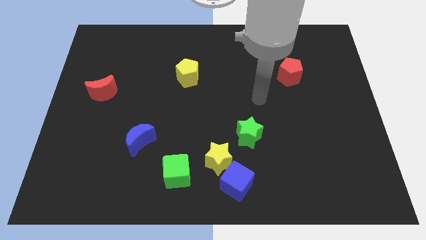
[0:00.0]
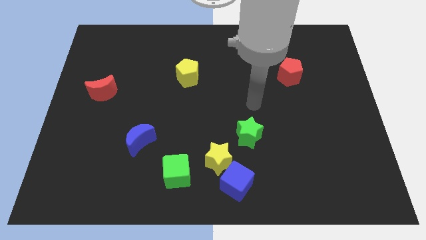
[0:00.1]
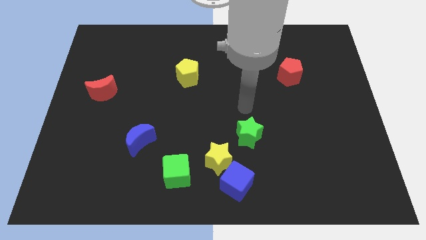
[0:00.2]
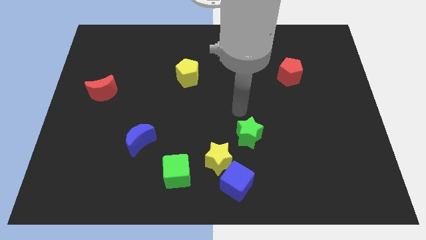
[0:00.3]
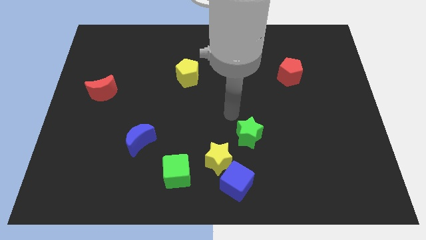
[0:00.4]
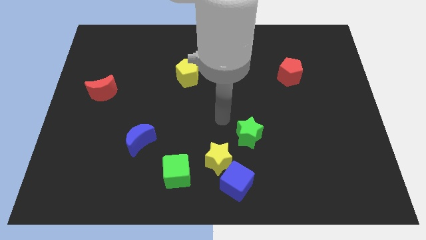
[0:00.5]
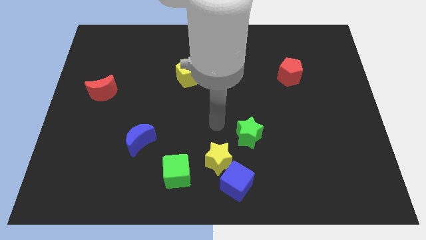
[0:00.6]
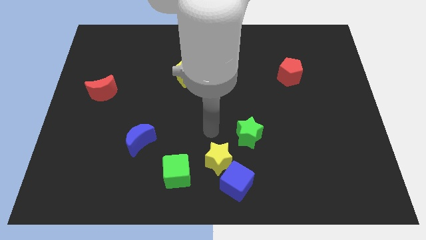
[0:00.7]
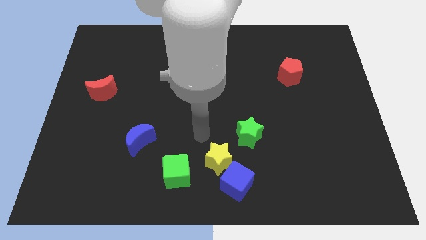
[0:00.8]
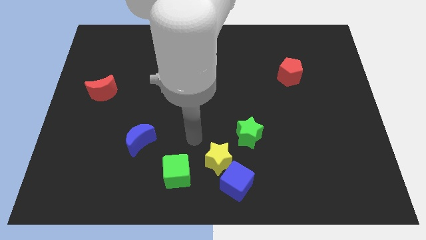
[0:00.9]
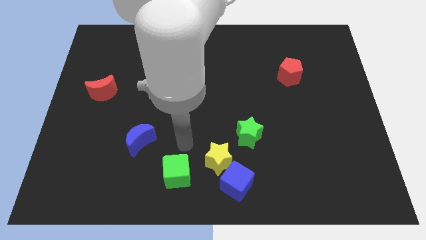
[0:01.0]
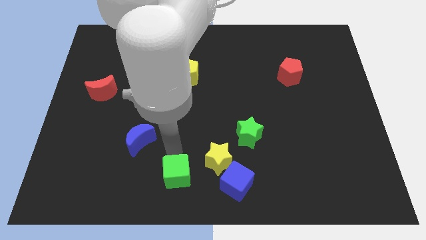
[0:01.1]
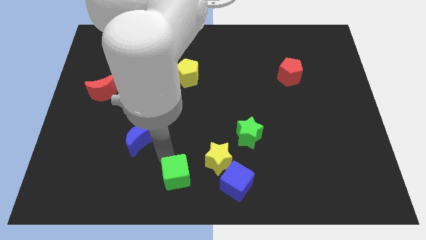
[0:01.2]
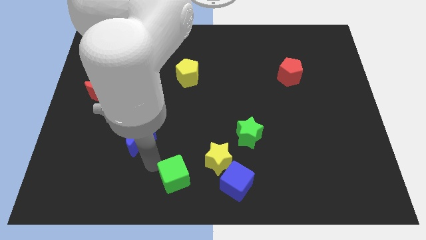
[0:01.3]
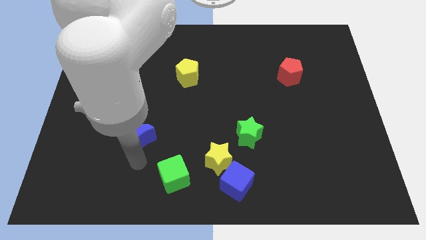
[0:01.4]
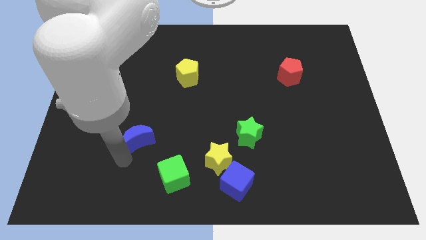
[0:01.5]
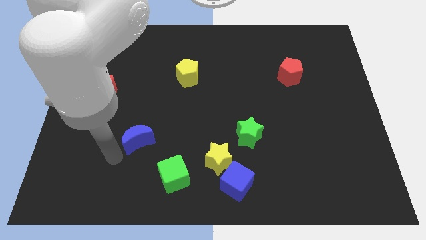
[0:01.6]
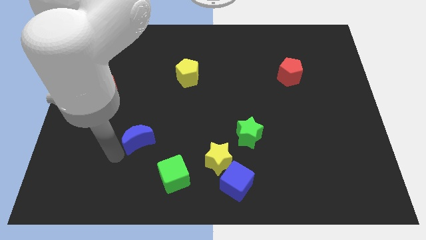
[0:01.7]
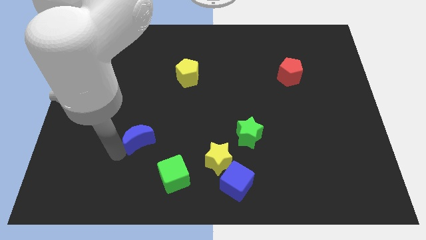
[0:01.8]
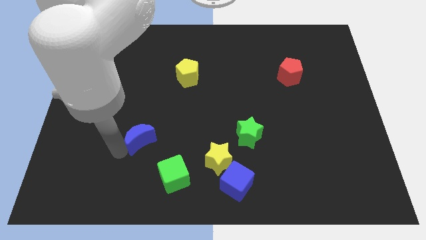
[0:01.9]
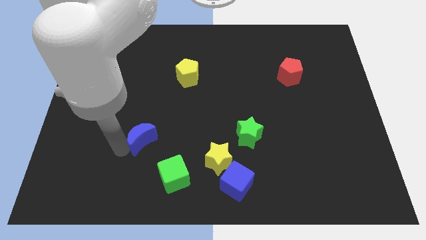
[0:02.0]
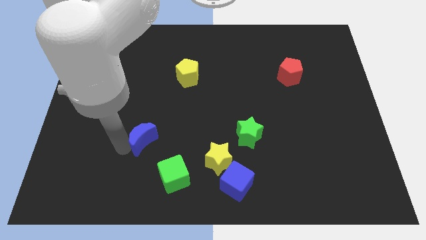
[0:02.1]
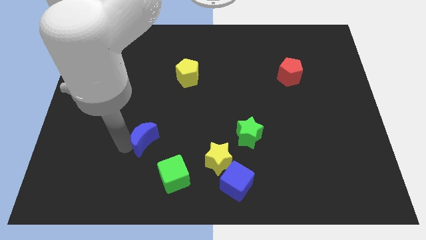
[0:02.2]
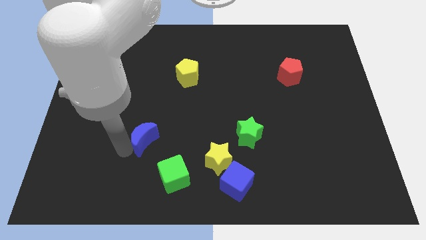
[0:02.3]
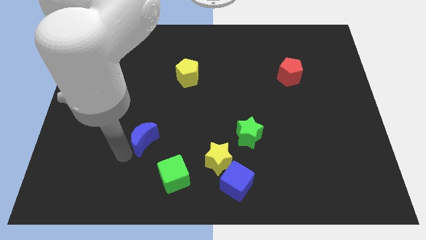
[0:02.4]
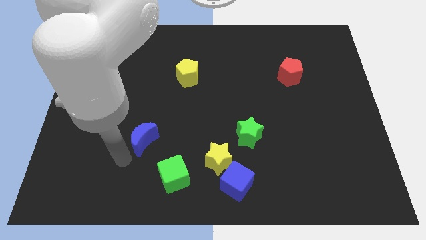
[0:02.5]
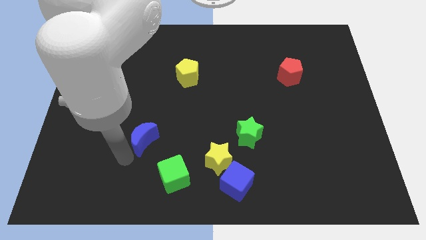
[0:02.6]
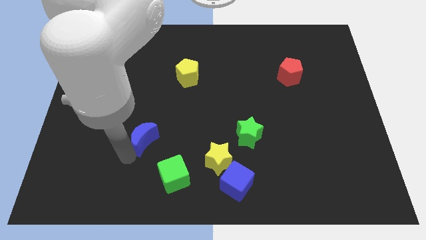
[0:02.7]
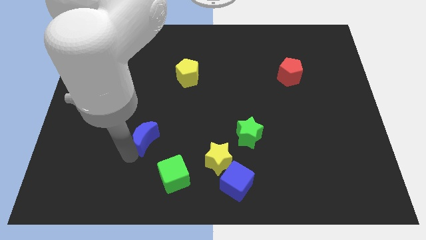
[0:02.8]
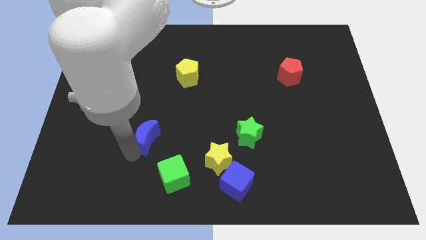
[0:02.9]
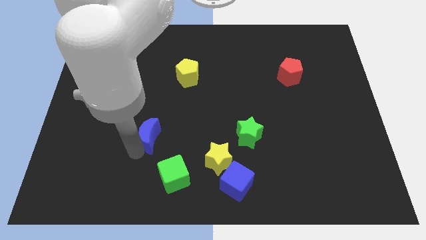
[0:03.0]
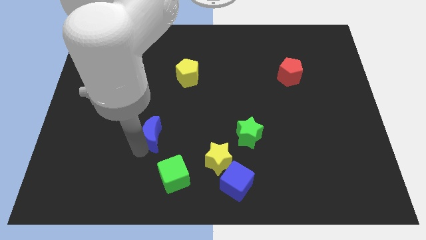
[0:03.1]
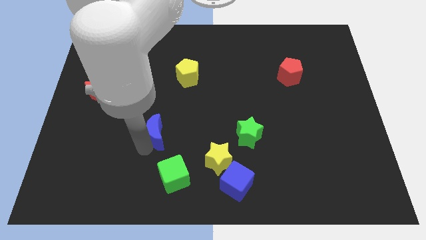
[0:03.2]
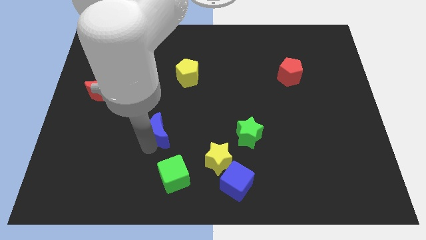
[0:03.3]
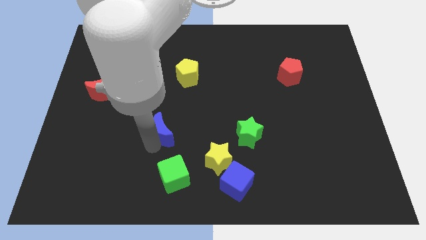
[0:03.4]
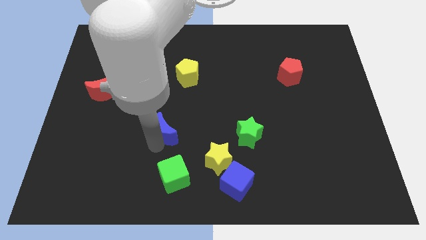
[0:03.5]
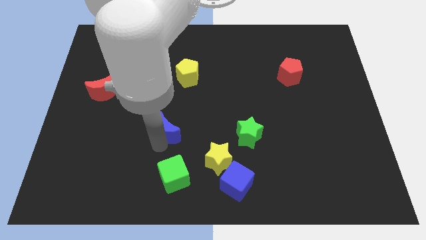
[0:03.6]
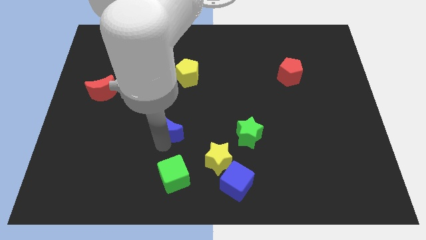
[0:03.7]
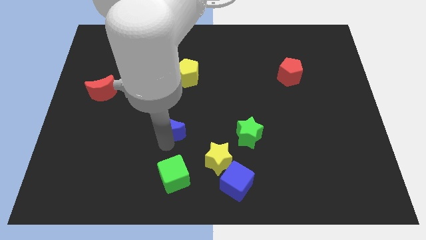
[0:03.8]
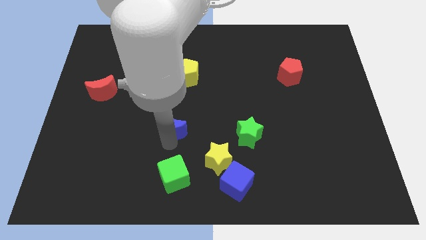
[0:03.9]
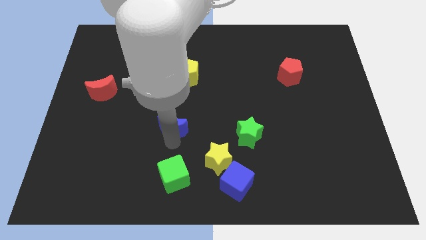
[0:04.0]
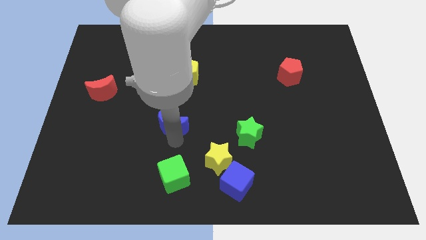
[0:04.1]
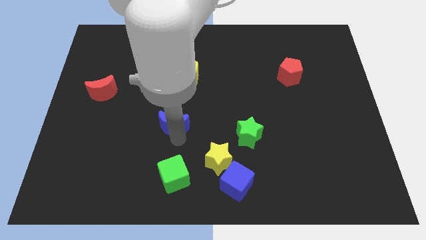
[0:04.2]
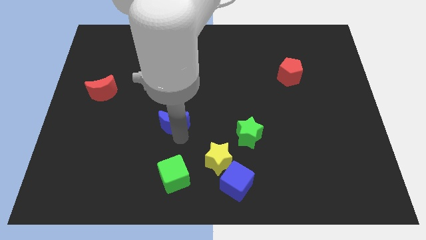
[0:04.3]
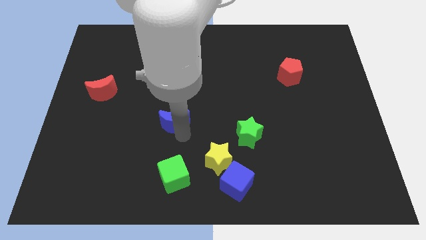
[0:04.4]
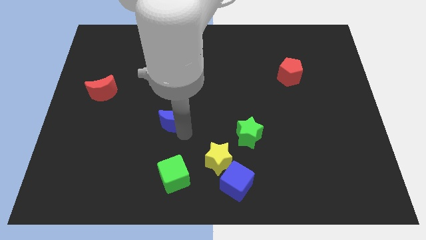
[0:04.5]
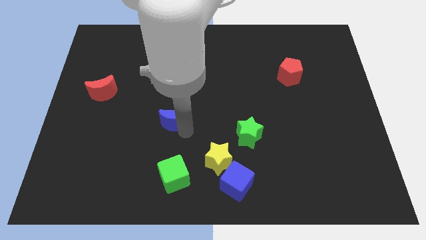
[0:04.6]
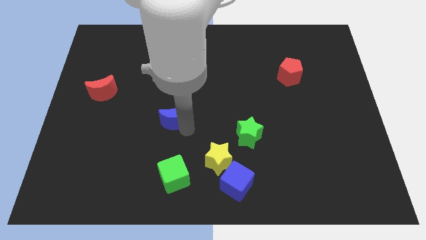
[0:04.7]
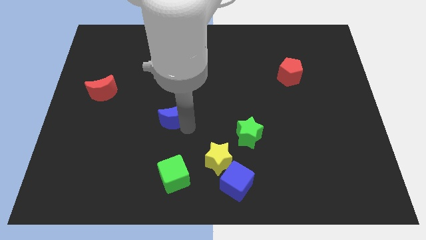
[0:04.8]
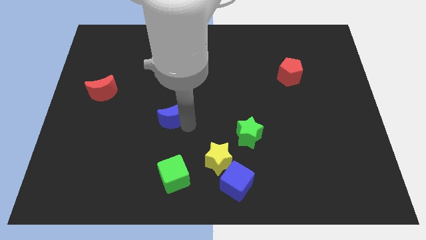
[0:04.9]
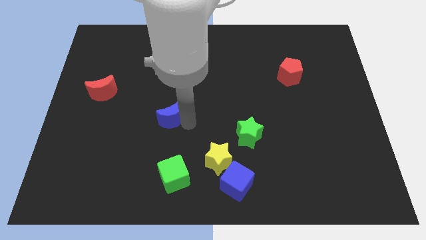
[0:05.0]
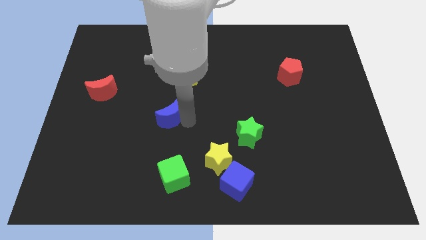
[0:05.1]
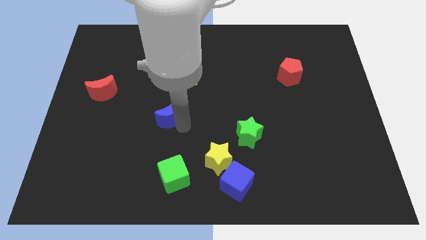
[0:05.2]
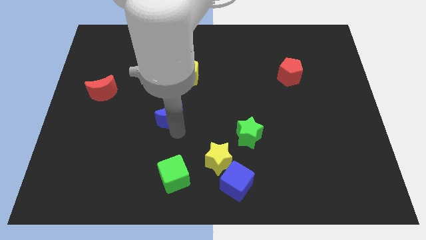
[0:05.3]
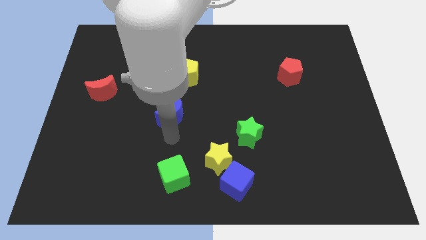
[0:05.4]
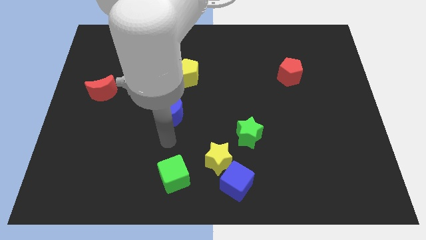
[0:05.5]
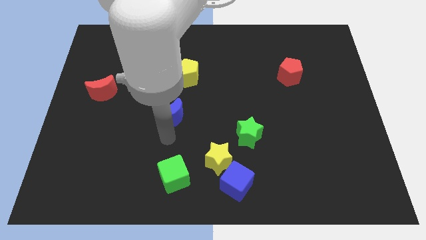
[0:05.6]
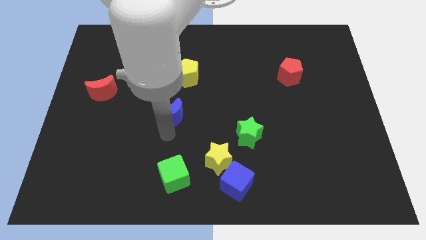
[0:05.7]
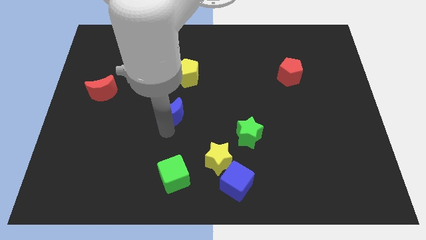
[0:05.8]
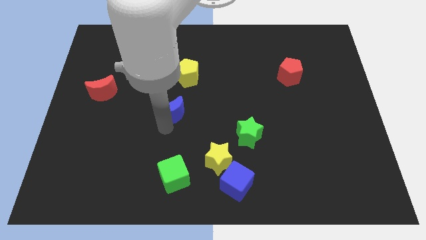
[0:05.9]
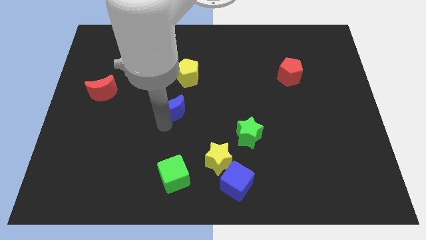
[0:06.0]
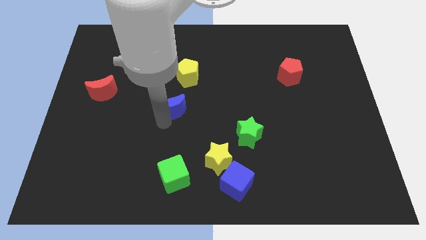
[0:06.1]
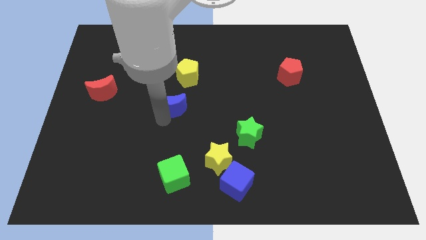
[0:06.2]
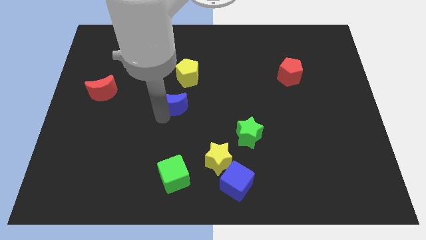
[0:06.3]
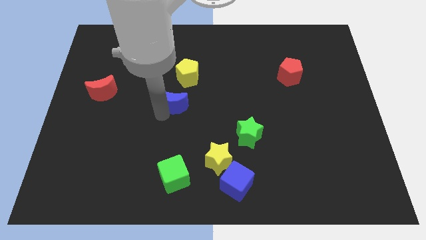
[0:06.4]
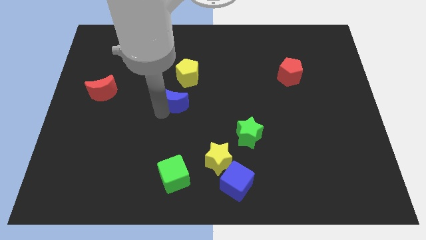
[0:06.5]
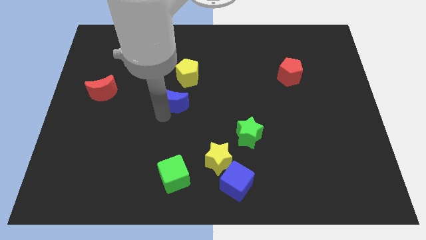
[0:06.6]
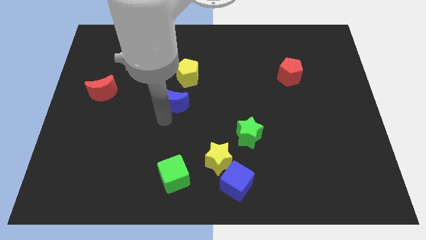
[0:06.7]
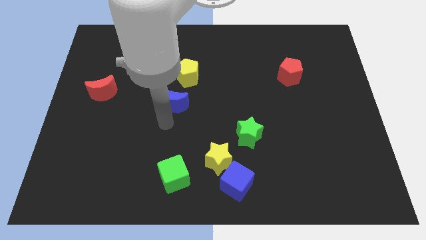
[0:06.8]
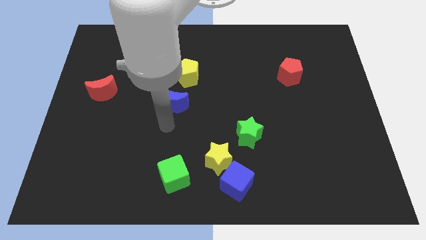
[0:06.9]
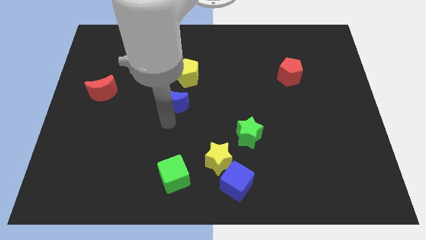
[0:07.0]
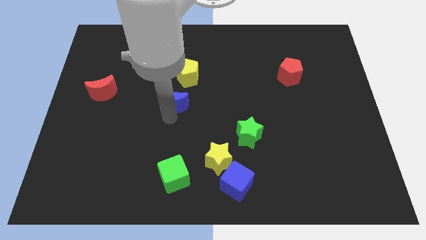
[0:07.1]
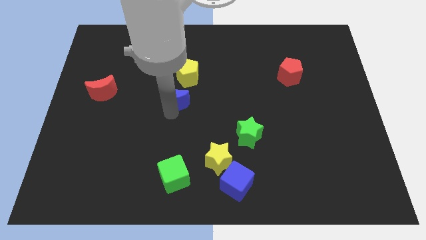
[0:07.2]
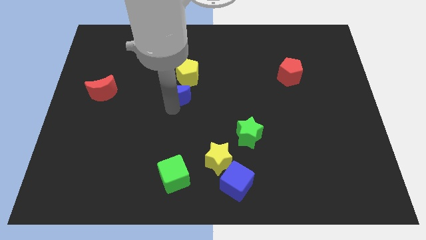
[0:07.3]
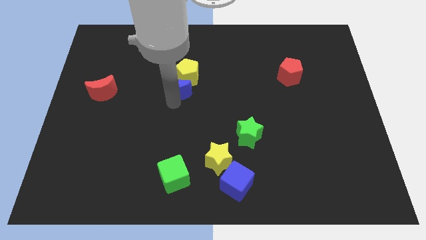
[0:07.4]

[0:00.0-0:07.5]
move the blue moon to the yellow pentagon

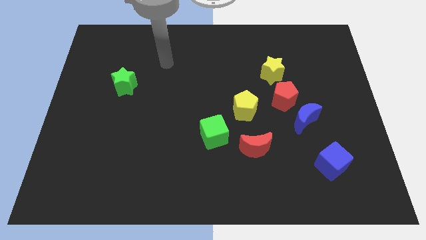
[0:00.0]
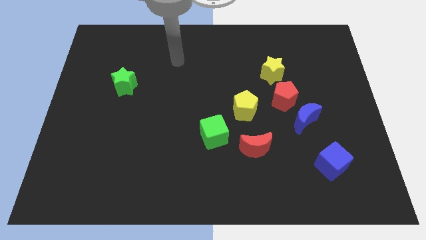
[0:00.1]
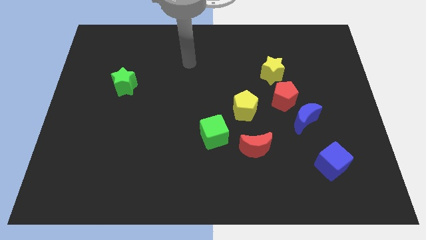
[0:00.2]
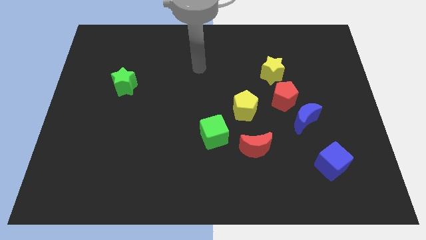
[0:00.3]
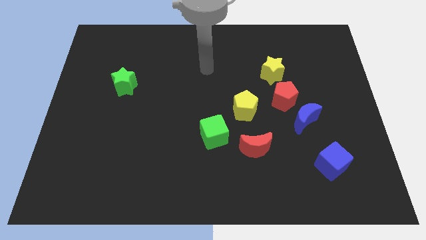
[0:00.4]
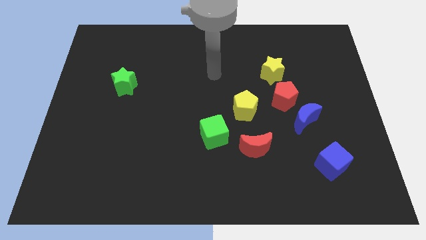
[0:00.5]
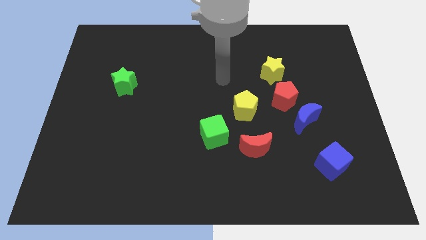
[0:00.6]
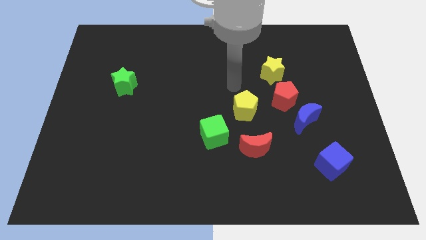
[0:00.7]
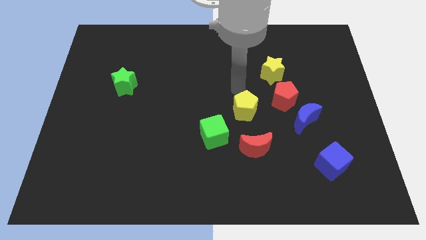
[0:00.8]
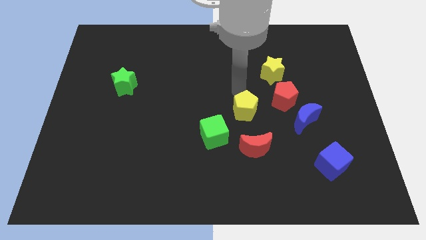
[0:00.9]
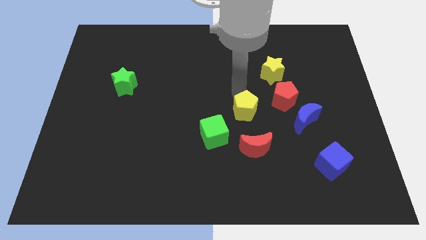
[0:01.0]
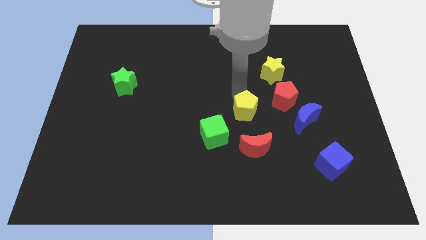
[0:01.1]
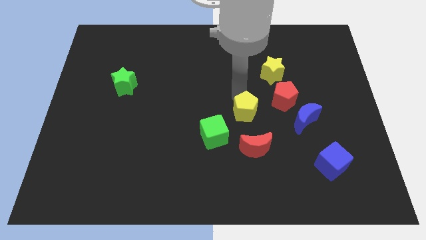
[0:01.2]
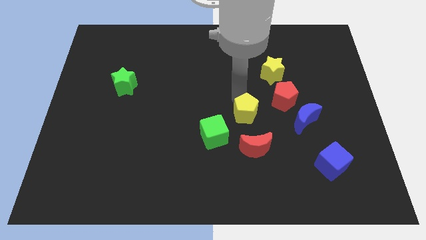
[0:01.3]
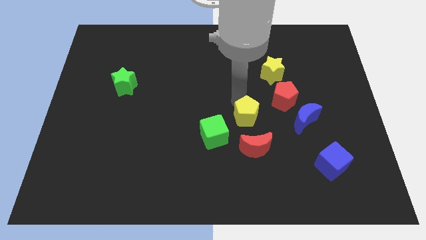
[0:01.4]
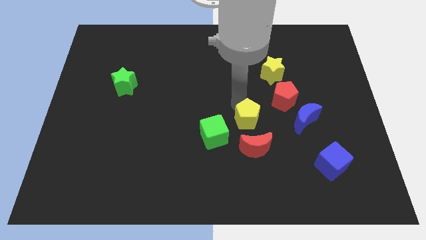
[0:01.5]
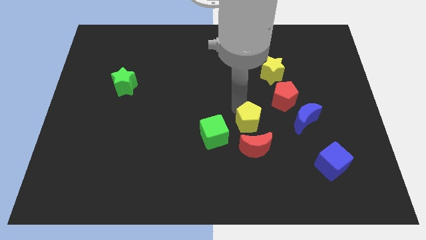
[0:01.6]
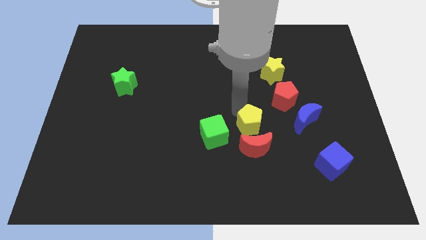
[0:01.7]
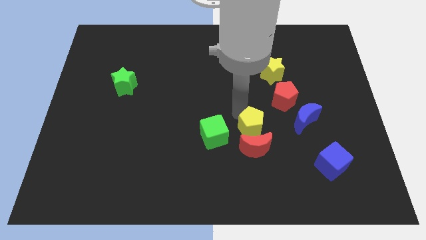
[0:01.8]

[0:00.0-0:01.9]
put the yellow pentagon next to the red moon
